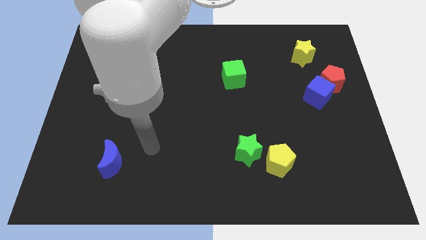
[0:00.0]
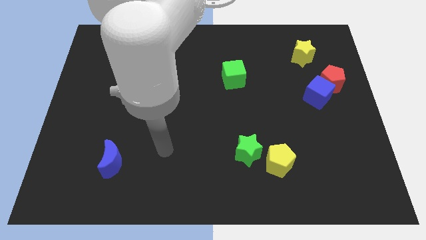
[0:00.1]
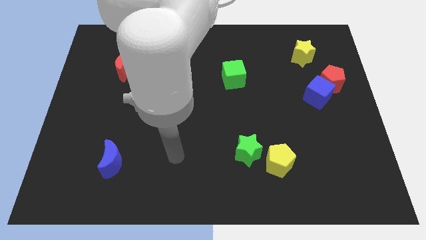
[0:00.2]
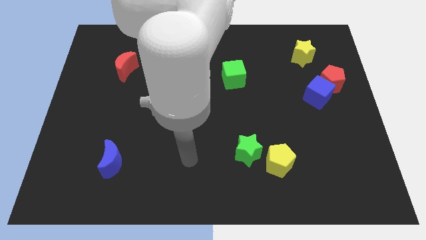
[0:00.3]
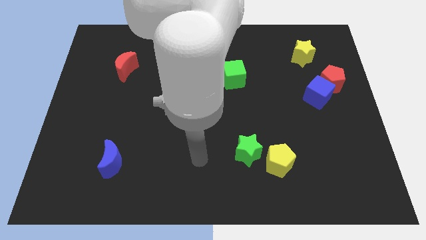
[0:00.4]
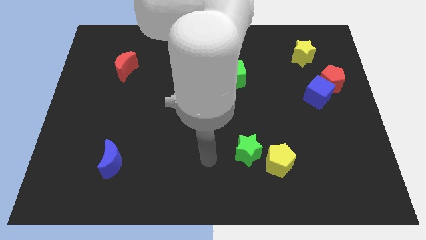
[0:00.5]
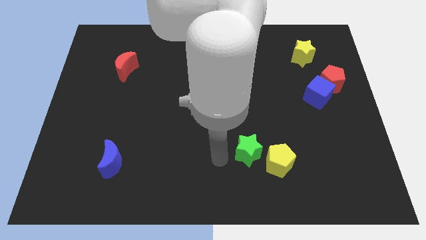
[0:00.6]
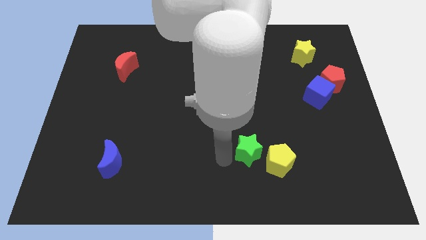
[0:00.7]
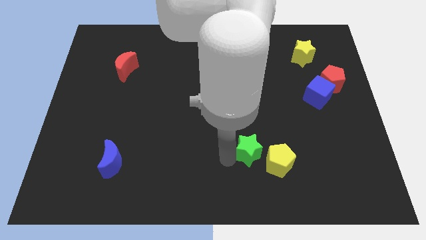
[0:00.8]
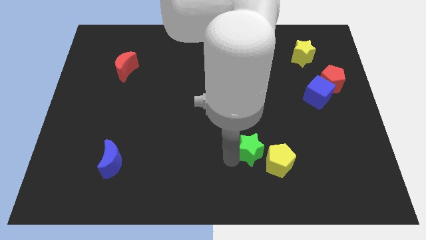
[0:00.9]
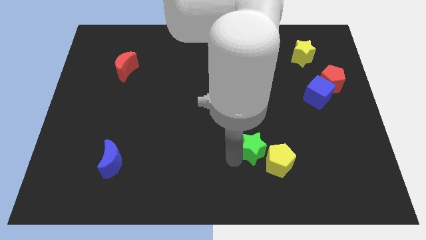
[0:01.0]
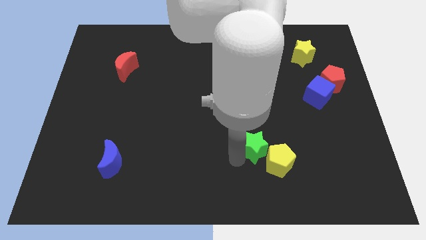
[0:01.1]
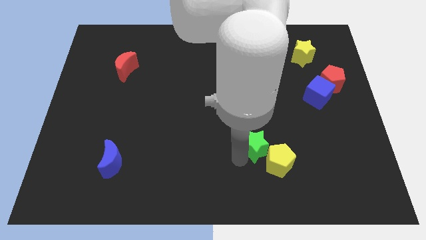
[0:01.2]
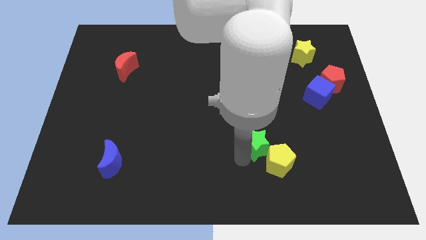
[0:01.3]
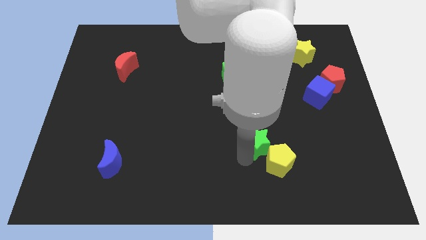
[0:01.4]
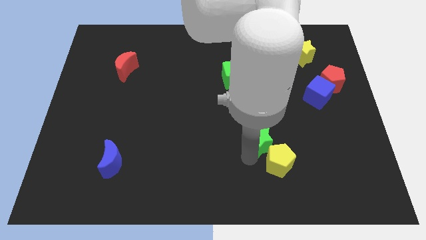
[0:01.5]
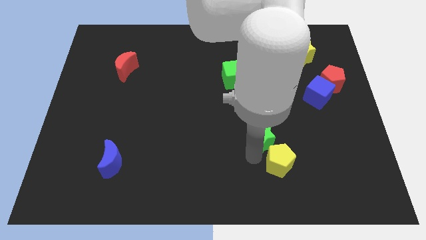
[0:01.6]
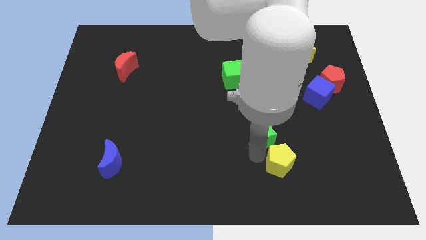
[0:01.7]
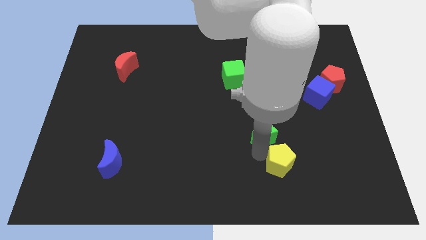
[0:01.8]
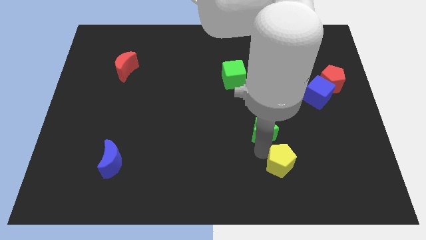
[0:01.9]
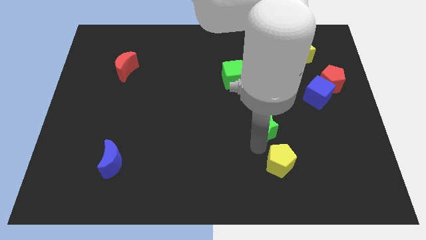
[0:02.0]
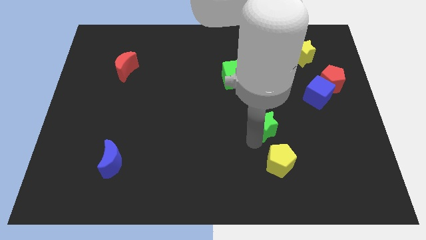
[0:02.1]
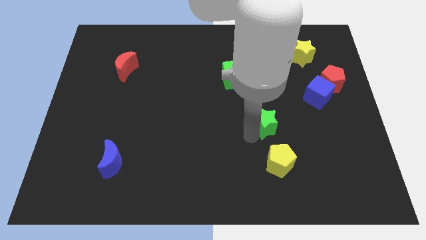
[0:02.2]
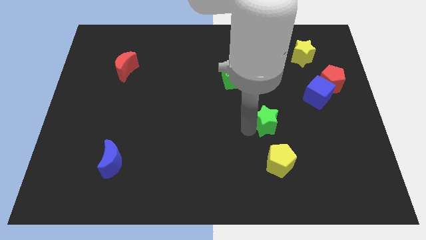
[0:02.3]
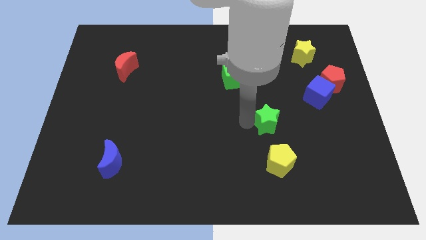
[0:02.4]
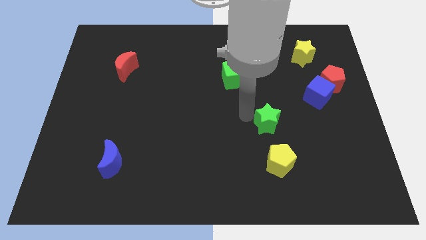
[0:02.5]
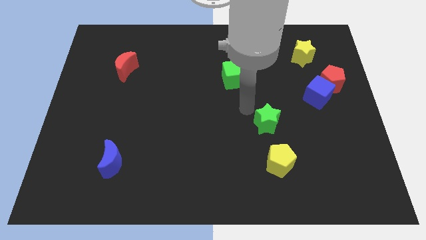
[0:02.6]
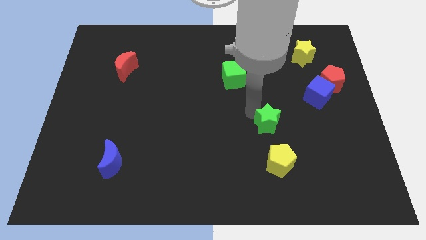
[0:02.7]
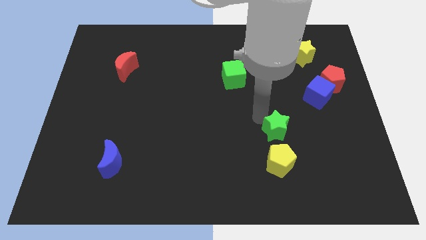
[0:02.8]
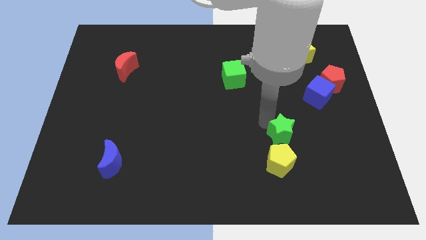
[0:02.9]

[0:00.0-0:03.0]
slide the green star somewhat right

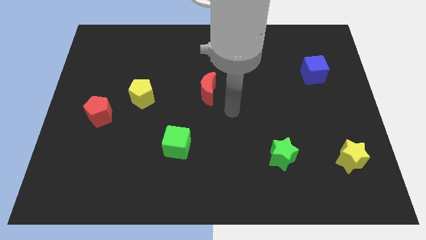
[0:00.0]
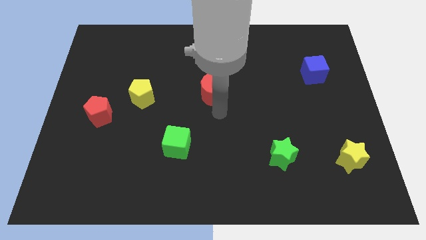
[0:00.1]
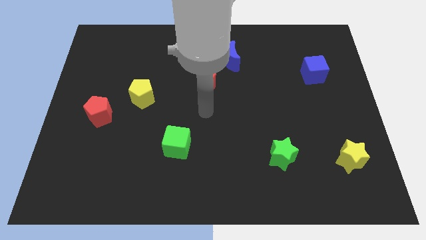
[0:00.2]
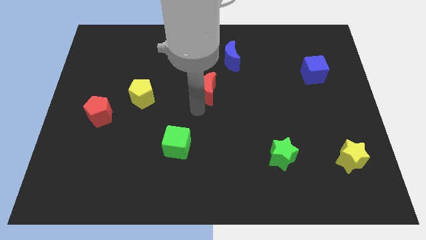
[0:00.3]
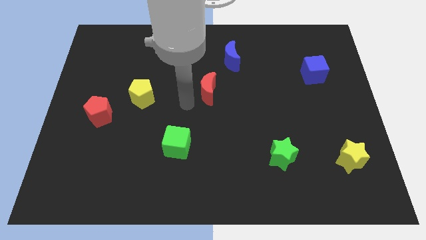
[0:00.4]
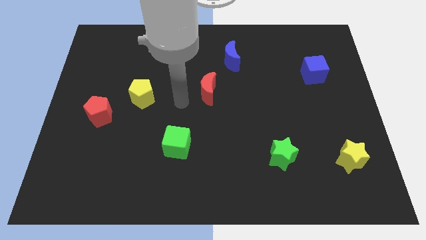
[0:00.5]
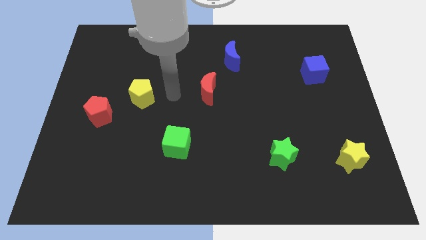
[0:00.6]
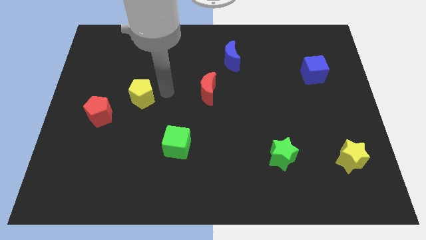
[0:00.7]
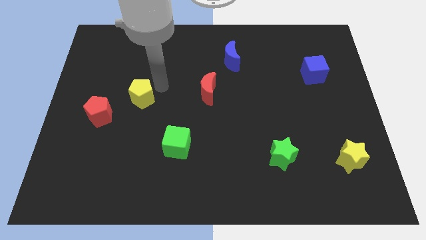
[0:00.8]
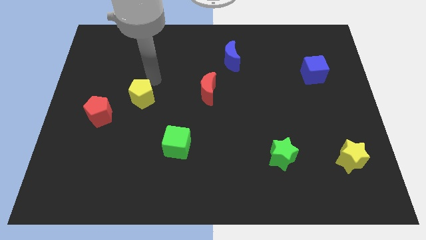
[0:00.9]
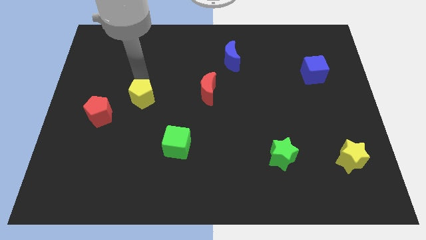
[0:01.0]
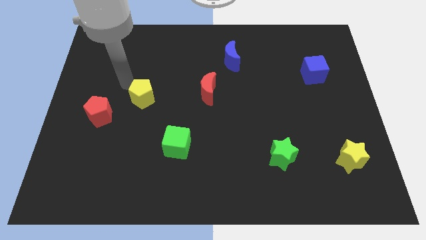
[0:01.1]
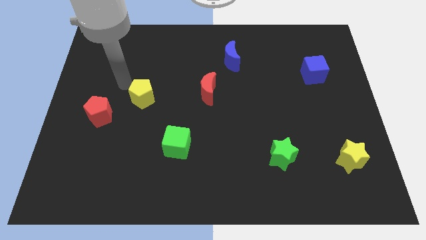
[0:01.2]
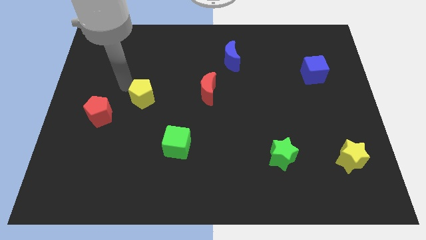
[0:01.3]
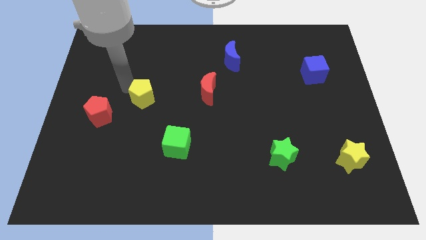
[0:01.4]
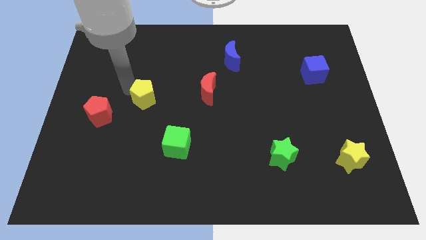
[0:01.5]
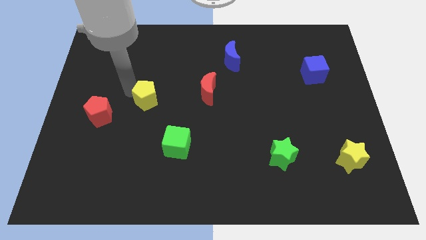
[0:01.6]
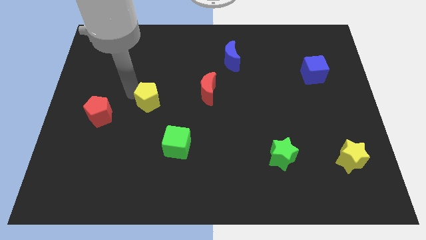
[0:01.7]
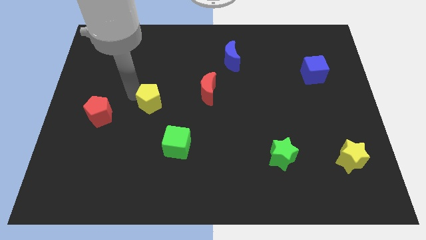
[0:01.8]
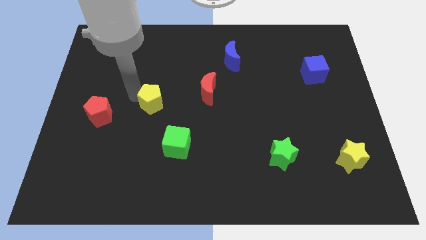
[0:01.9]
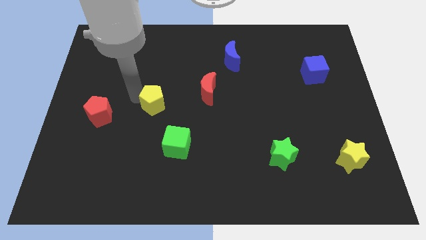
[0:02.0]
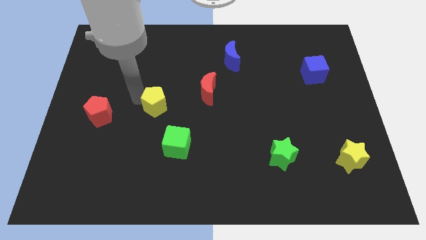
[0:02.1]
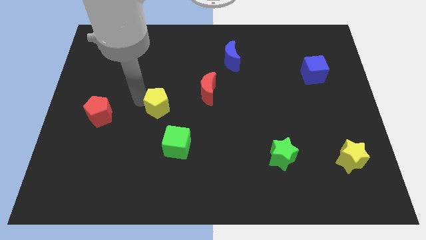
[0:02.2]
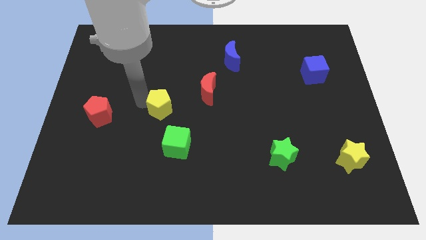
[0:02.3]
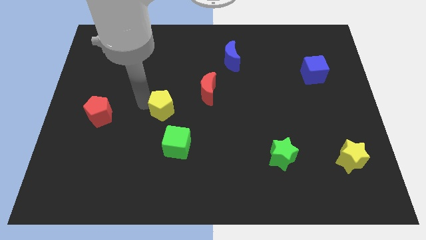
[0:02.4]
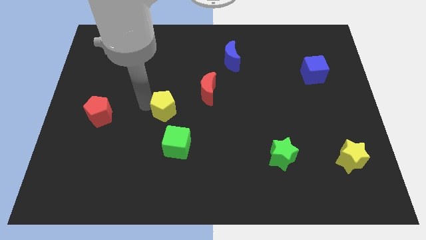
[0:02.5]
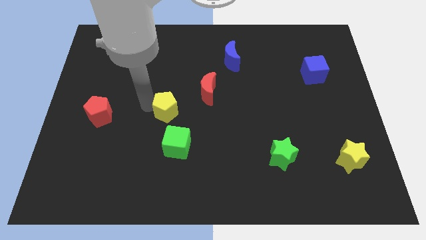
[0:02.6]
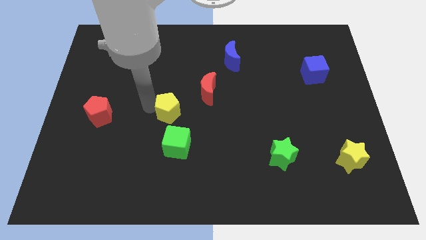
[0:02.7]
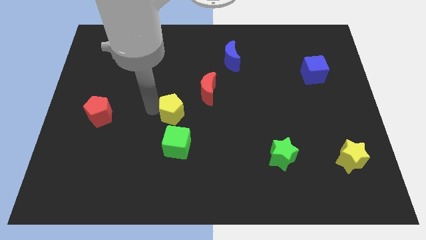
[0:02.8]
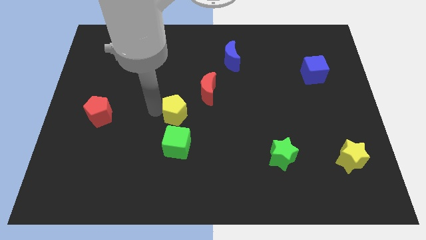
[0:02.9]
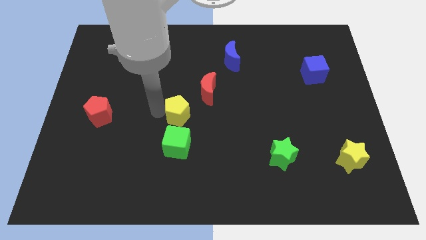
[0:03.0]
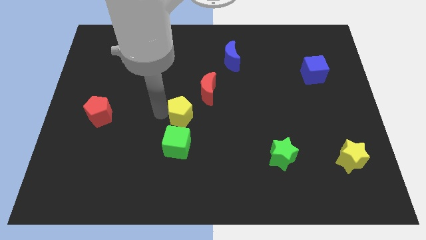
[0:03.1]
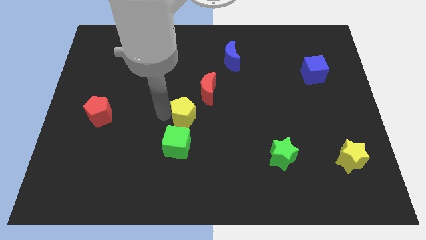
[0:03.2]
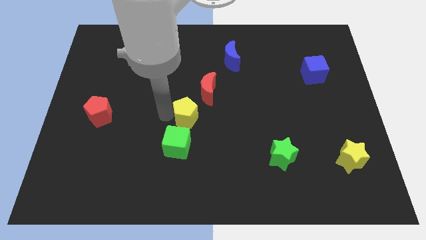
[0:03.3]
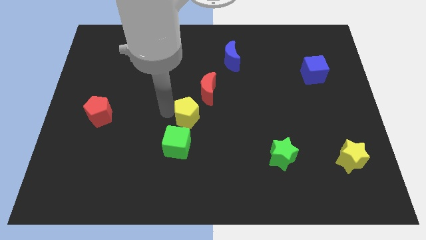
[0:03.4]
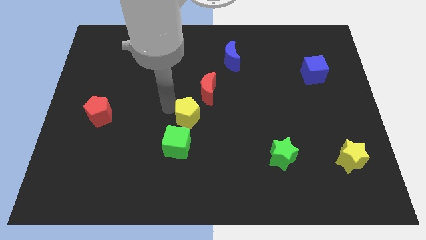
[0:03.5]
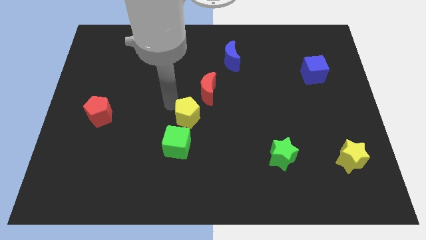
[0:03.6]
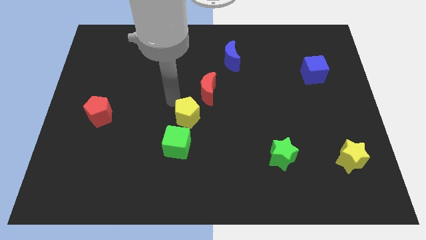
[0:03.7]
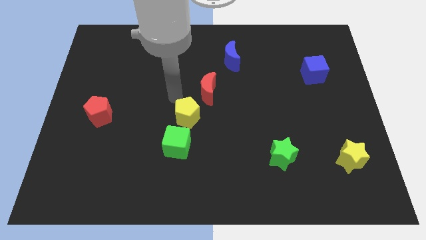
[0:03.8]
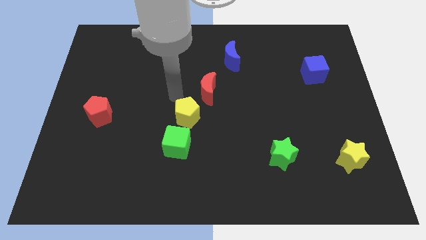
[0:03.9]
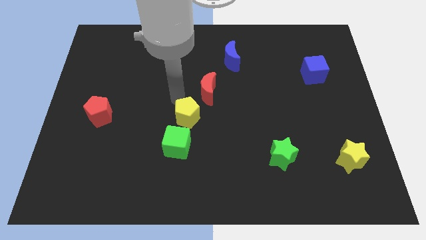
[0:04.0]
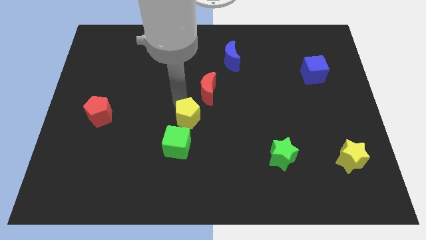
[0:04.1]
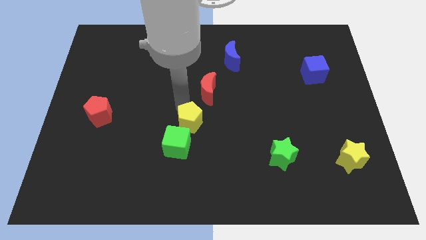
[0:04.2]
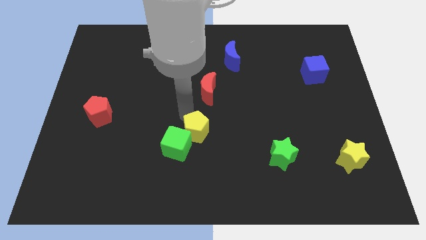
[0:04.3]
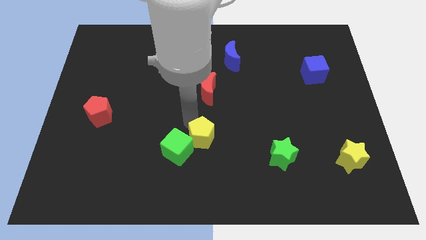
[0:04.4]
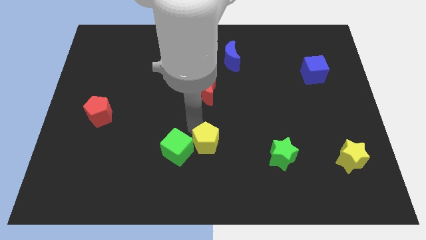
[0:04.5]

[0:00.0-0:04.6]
move the yellow pentagon downwards and then right

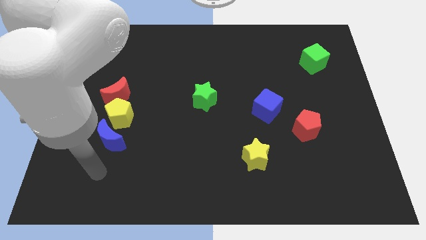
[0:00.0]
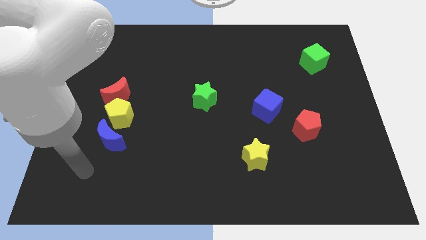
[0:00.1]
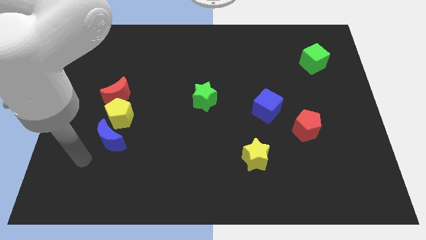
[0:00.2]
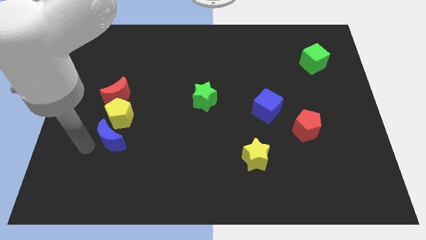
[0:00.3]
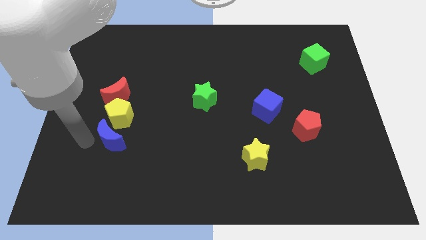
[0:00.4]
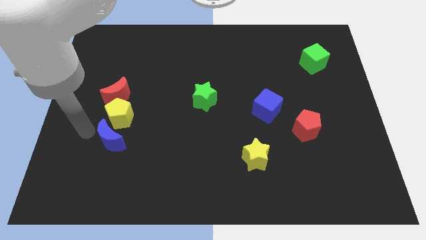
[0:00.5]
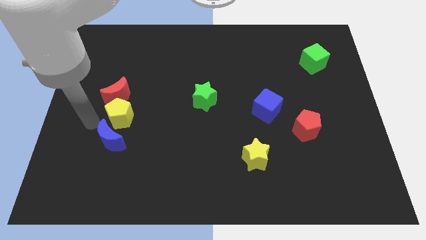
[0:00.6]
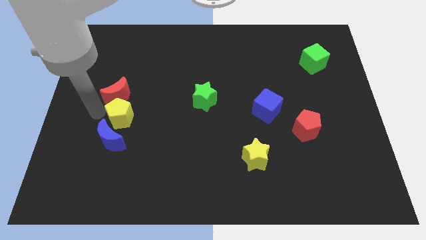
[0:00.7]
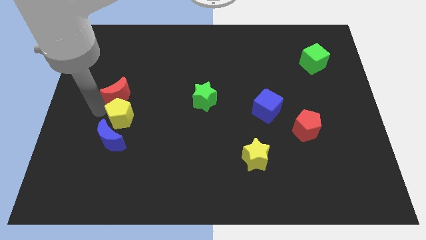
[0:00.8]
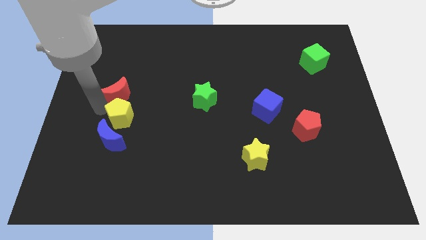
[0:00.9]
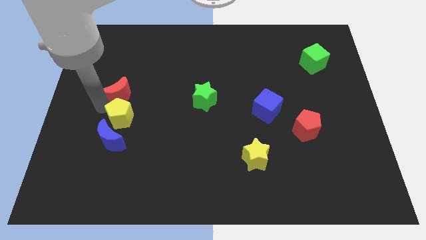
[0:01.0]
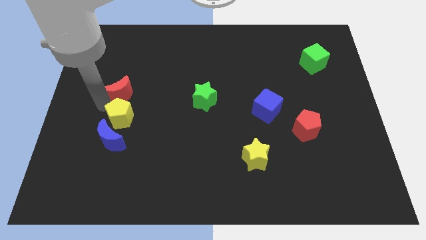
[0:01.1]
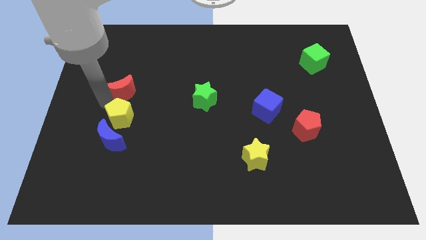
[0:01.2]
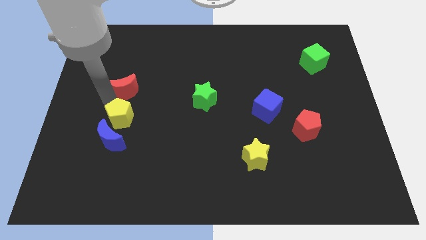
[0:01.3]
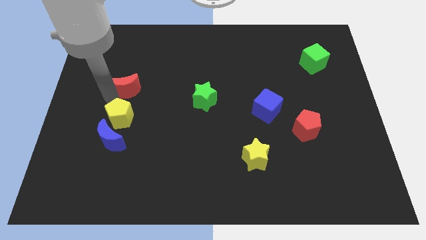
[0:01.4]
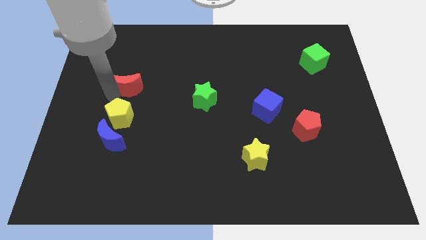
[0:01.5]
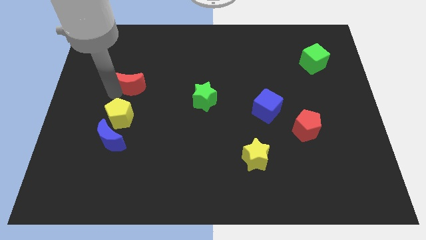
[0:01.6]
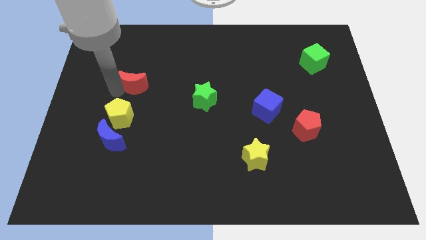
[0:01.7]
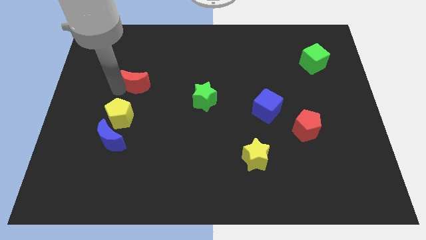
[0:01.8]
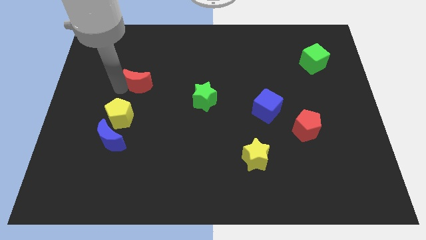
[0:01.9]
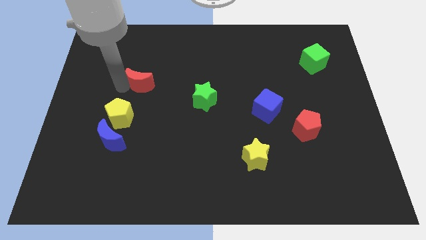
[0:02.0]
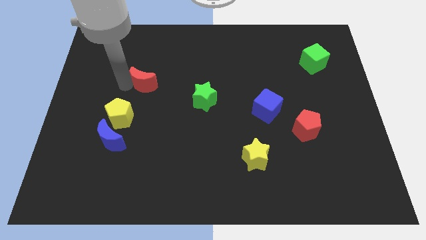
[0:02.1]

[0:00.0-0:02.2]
move the red moon up and right somewhat
